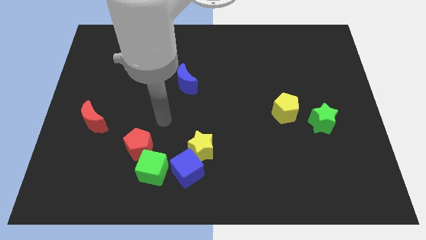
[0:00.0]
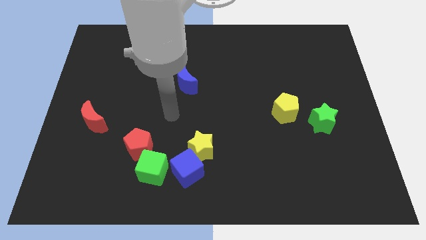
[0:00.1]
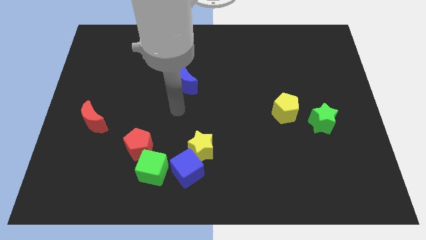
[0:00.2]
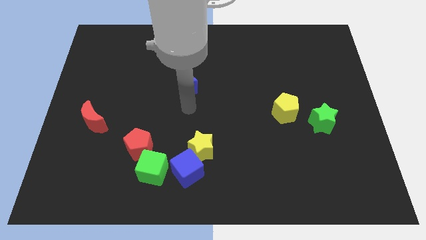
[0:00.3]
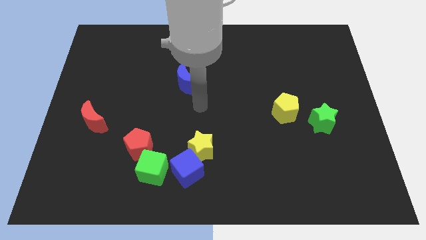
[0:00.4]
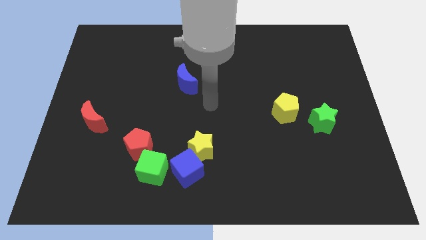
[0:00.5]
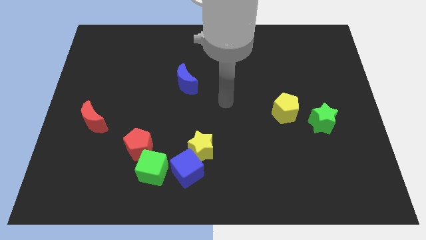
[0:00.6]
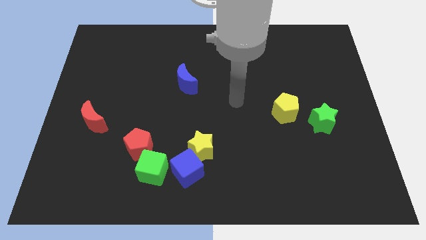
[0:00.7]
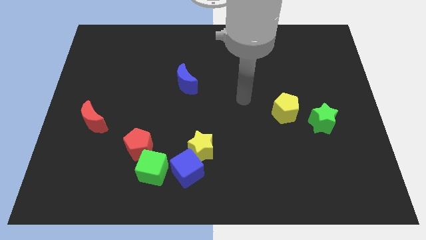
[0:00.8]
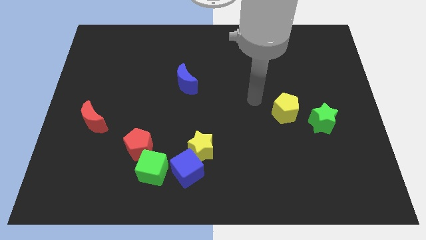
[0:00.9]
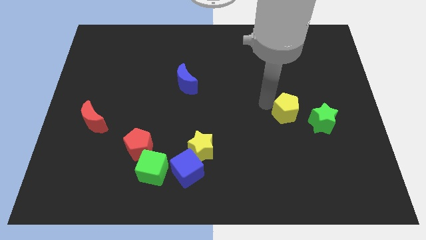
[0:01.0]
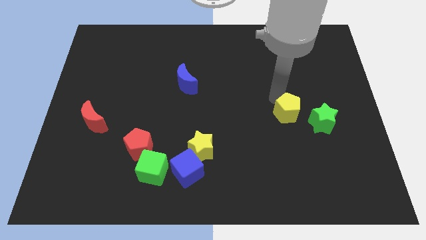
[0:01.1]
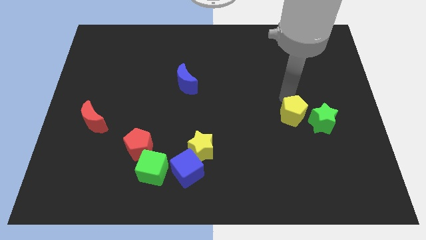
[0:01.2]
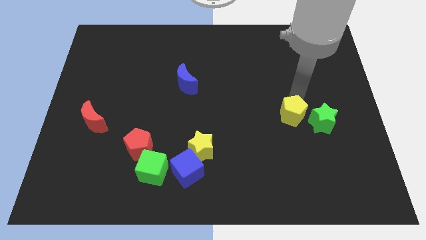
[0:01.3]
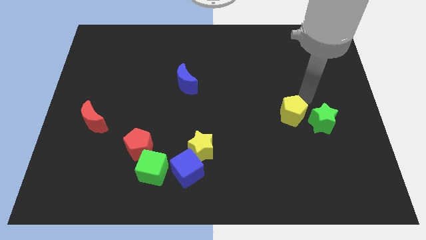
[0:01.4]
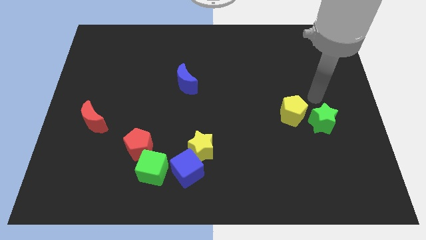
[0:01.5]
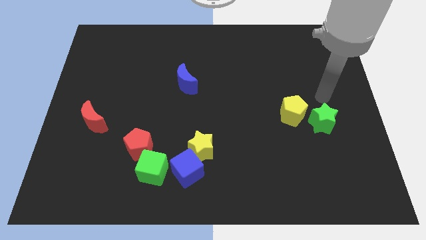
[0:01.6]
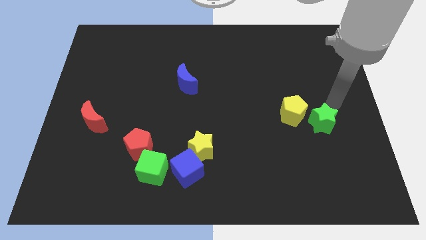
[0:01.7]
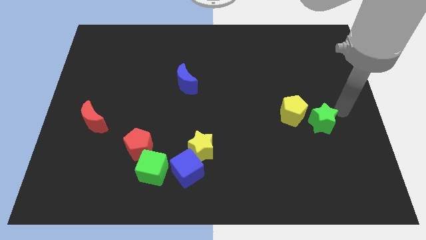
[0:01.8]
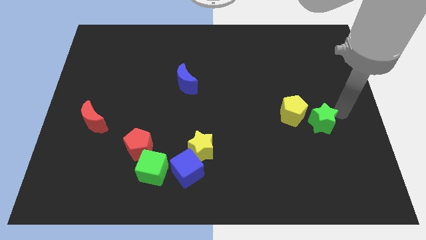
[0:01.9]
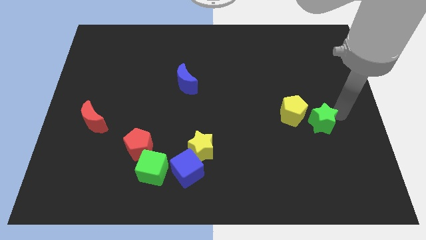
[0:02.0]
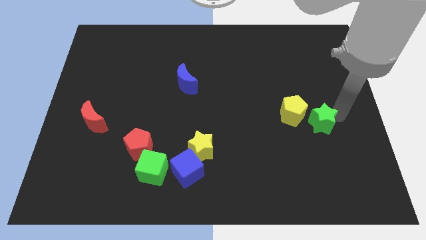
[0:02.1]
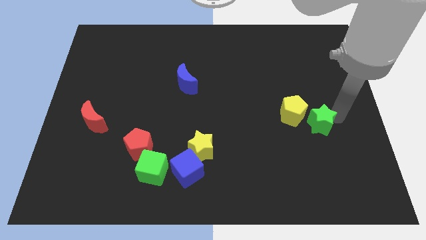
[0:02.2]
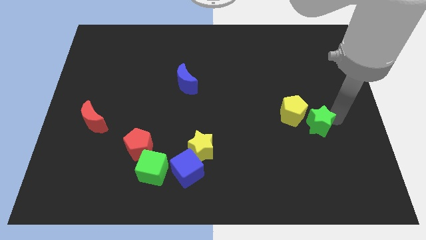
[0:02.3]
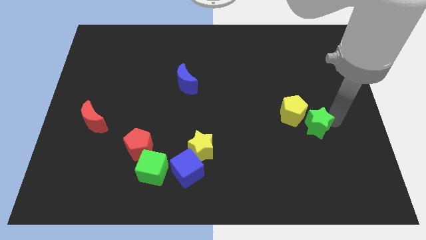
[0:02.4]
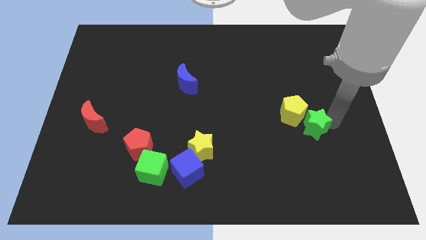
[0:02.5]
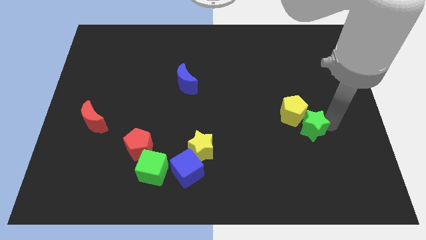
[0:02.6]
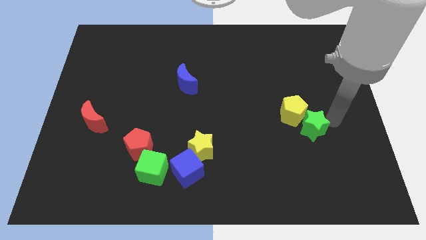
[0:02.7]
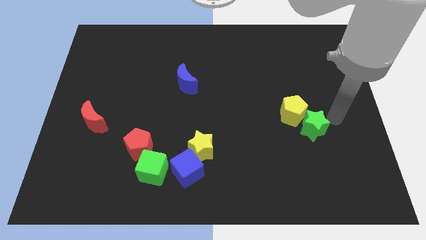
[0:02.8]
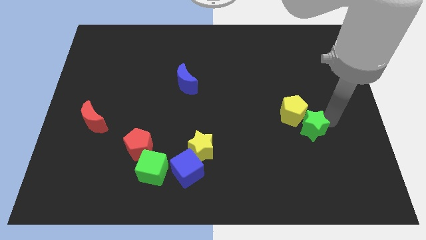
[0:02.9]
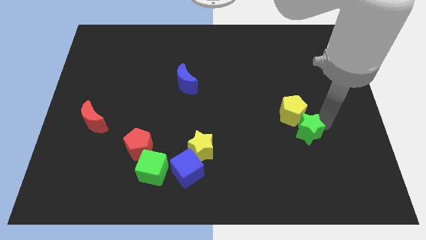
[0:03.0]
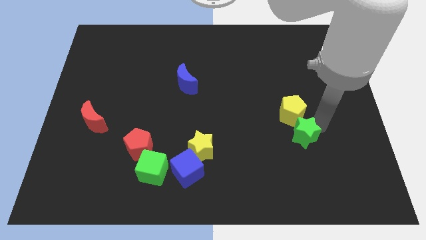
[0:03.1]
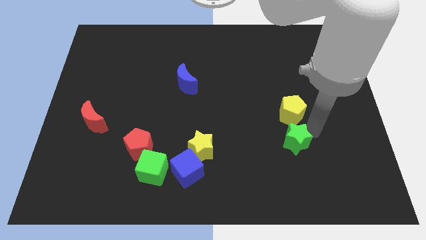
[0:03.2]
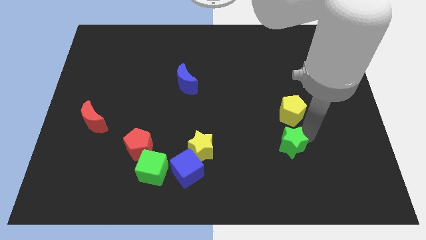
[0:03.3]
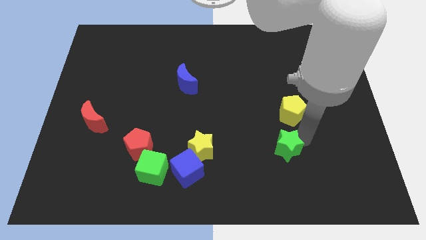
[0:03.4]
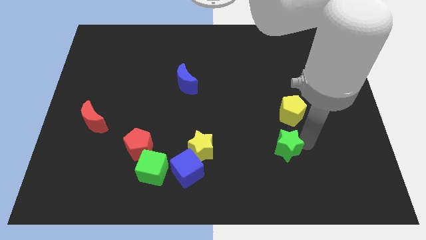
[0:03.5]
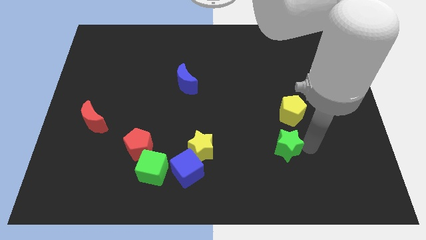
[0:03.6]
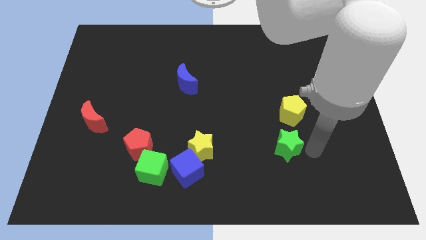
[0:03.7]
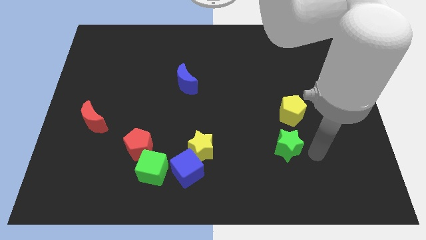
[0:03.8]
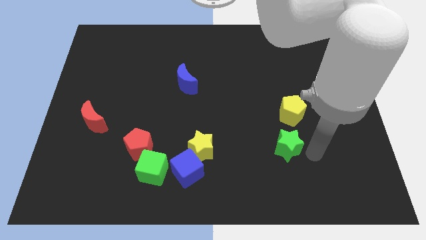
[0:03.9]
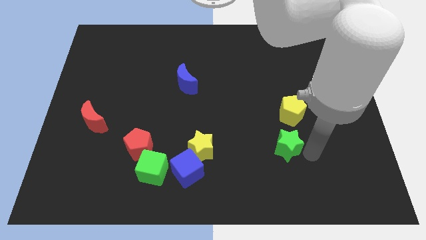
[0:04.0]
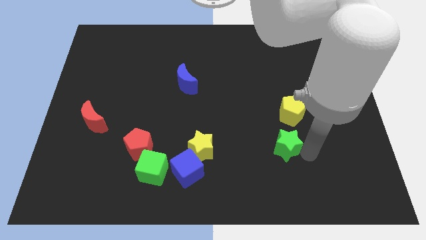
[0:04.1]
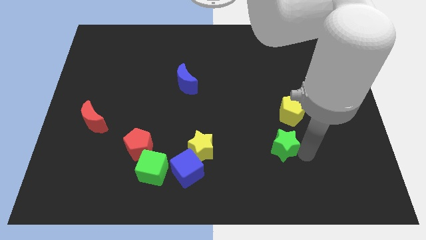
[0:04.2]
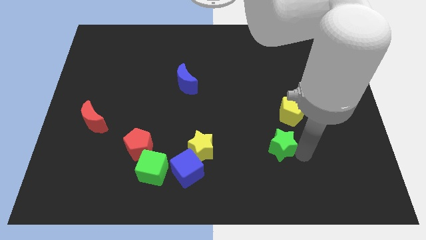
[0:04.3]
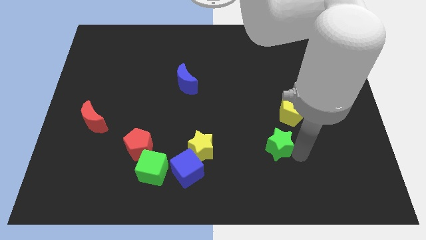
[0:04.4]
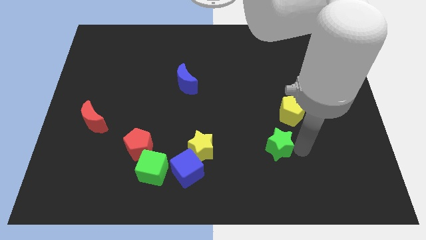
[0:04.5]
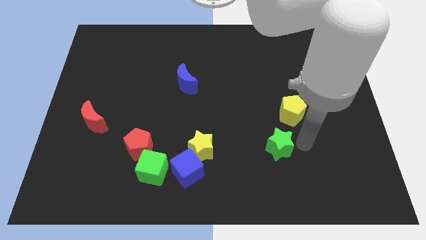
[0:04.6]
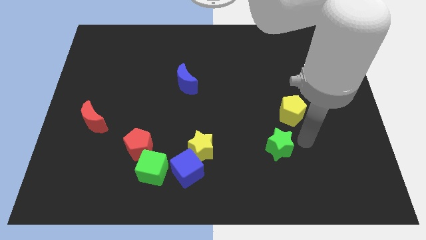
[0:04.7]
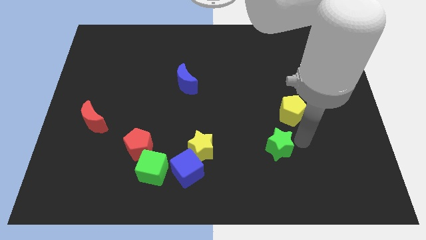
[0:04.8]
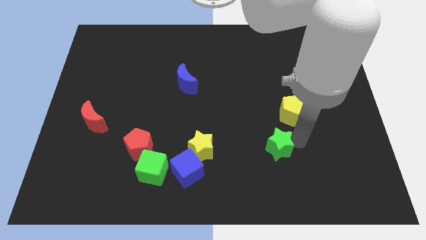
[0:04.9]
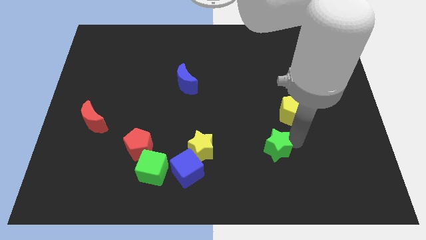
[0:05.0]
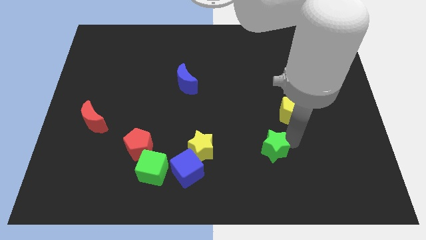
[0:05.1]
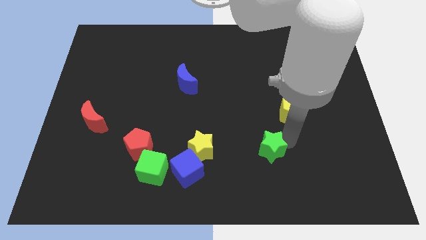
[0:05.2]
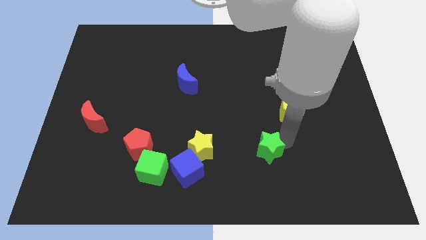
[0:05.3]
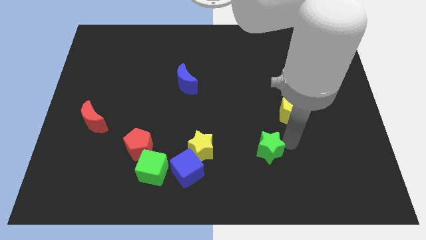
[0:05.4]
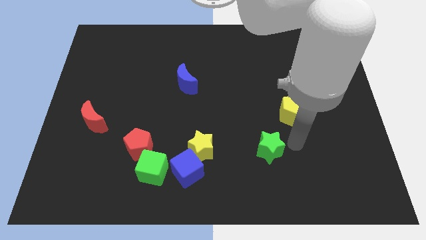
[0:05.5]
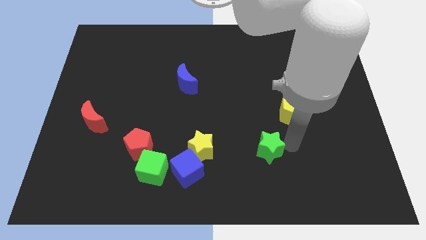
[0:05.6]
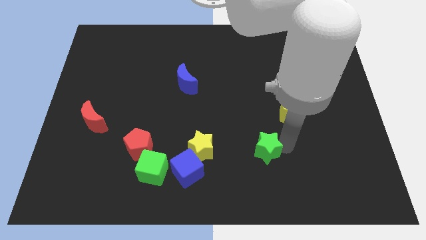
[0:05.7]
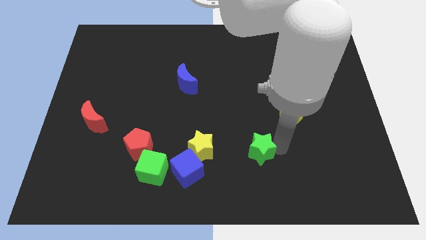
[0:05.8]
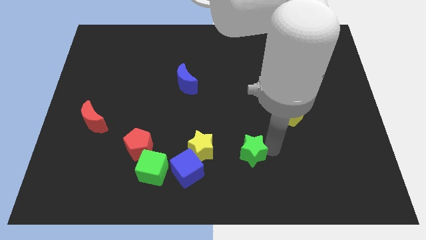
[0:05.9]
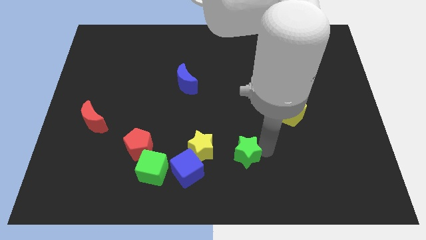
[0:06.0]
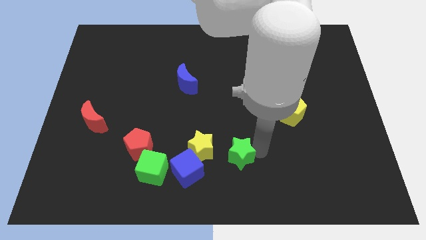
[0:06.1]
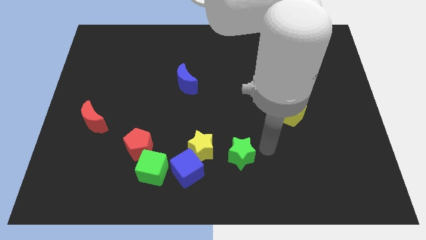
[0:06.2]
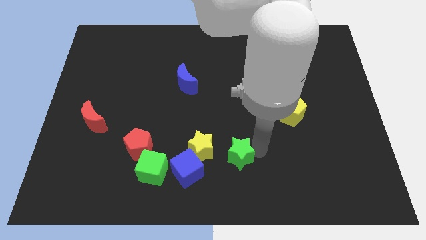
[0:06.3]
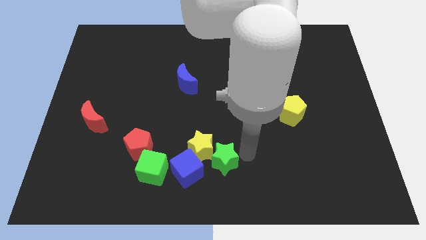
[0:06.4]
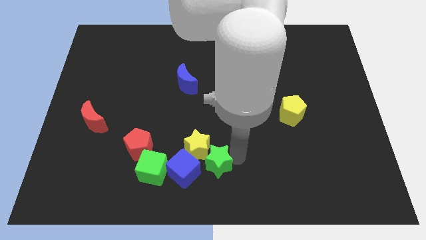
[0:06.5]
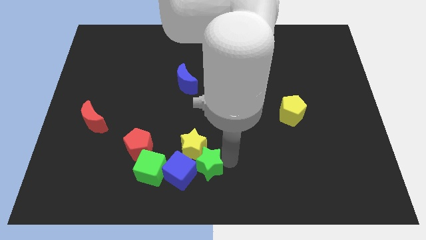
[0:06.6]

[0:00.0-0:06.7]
slide the green star close to the blue cube
